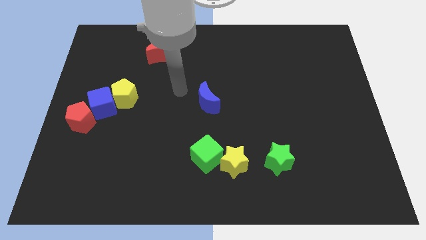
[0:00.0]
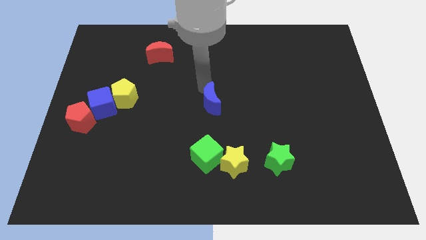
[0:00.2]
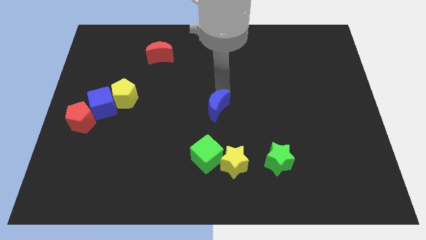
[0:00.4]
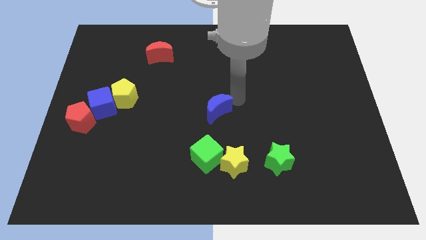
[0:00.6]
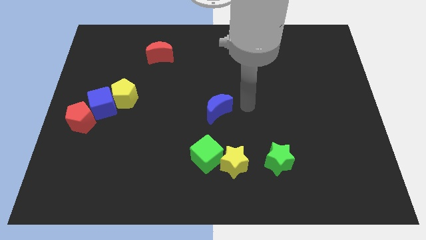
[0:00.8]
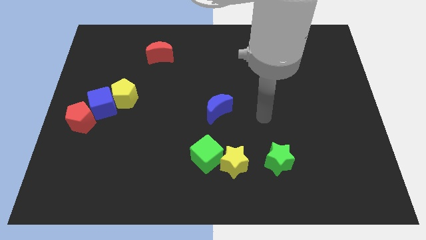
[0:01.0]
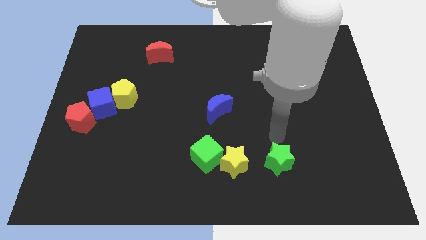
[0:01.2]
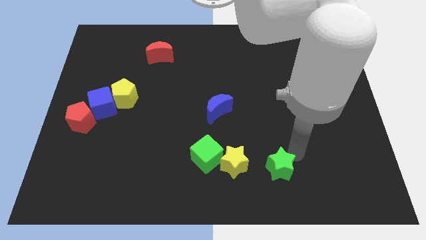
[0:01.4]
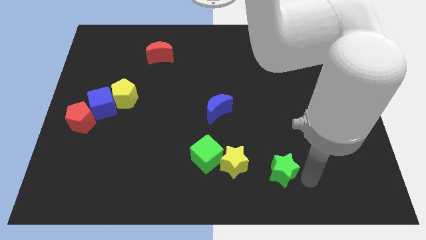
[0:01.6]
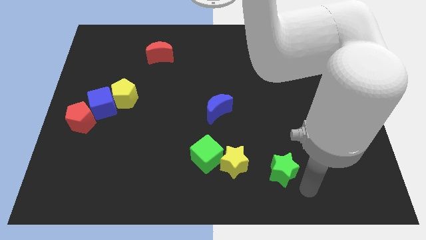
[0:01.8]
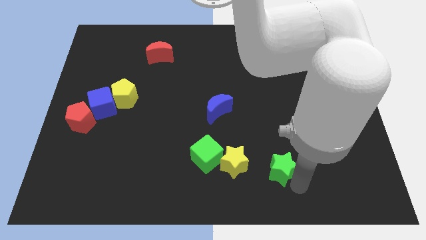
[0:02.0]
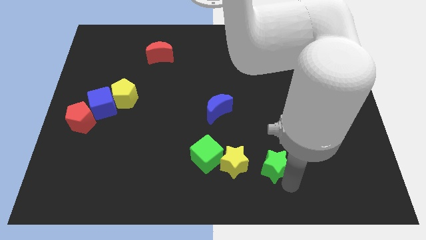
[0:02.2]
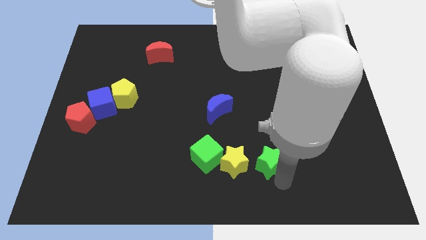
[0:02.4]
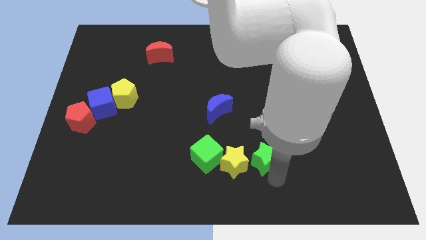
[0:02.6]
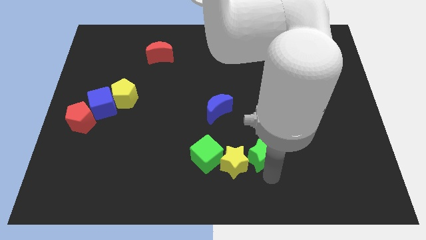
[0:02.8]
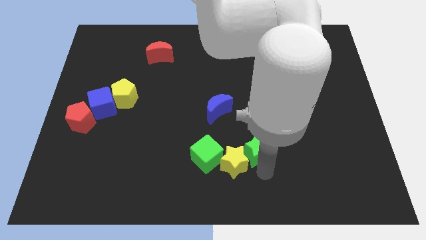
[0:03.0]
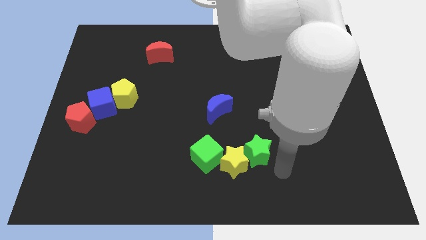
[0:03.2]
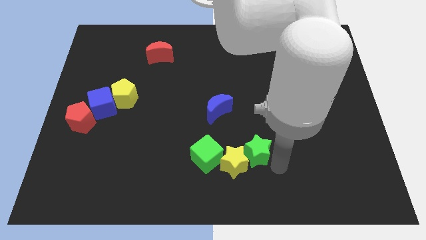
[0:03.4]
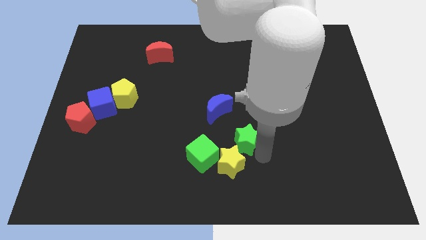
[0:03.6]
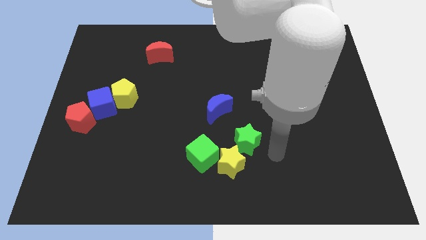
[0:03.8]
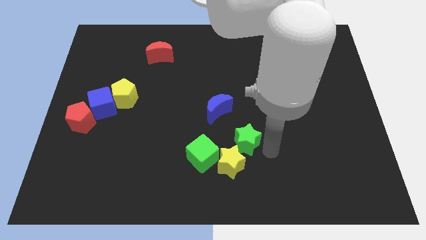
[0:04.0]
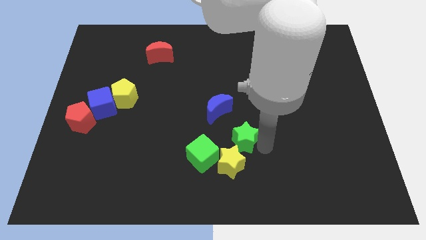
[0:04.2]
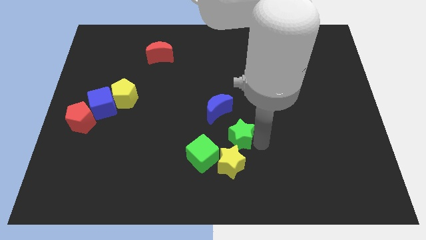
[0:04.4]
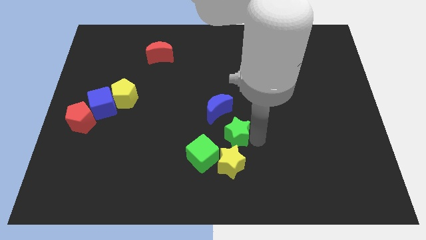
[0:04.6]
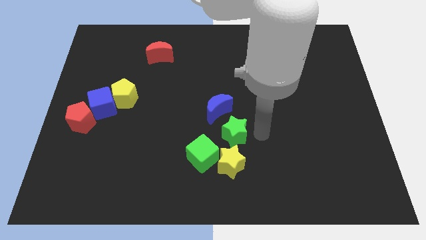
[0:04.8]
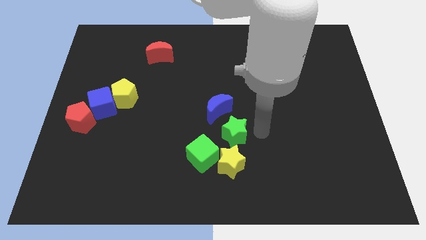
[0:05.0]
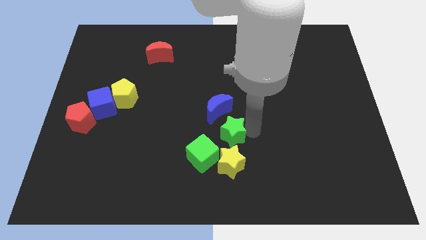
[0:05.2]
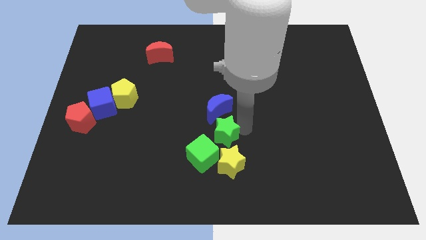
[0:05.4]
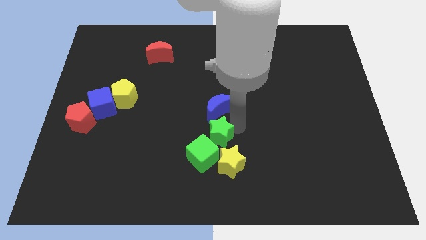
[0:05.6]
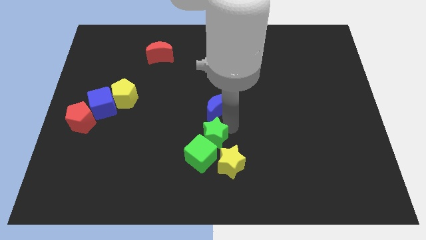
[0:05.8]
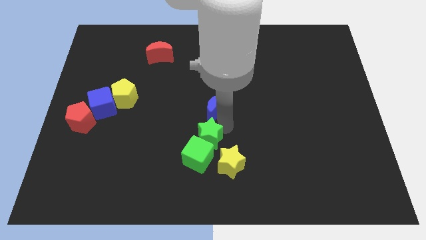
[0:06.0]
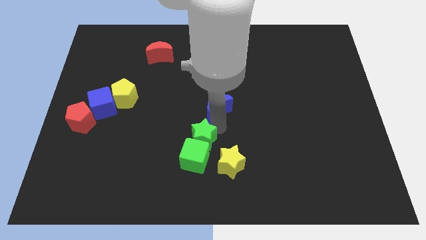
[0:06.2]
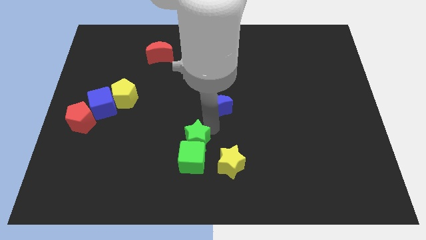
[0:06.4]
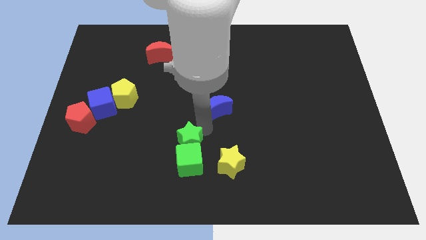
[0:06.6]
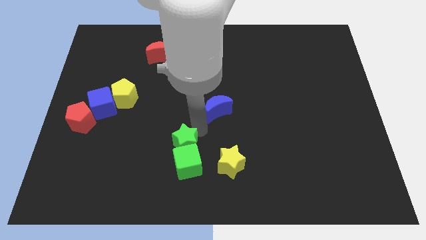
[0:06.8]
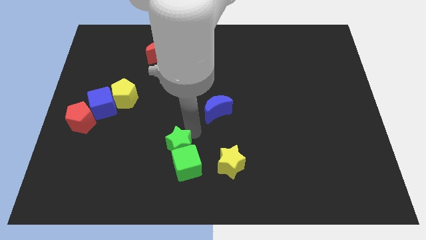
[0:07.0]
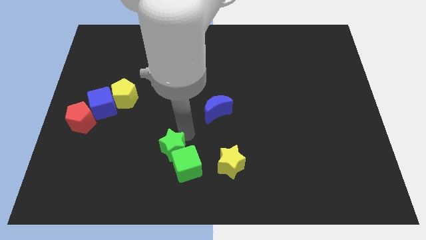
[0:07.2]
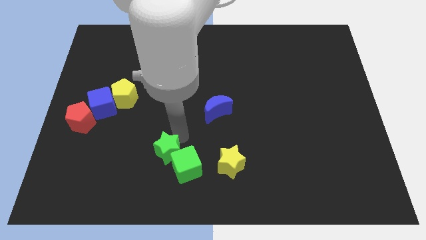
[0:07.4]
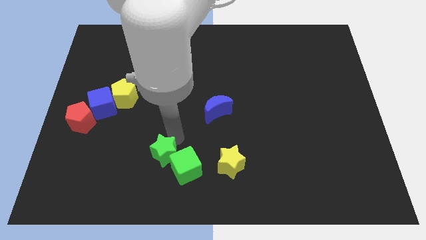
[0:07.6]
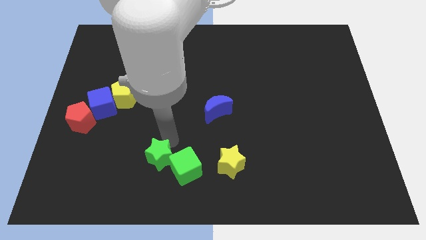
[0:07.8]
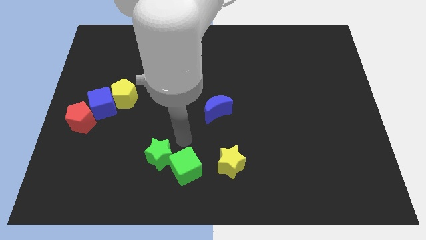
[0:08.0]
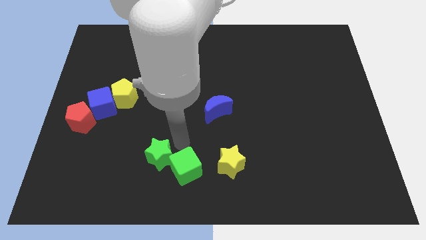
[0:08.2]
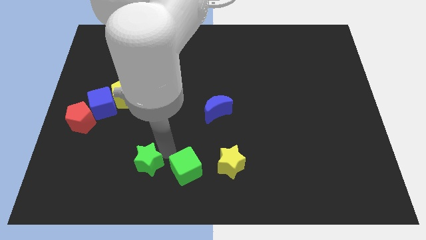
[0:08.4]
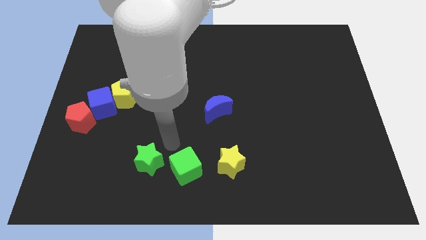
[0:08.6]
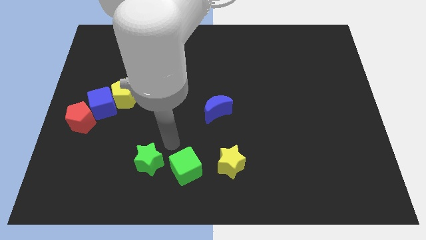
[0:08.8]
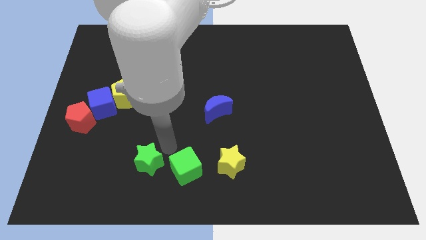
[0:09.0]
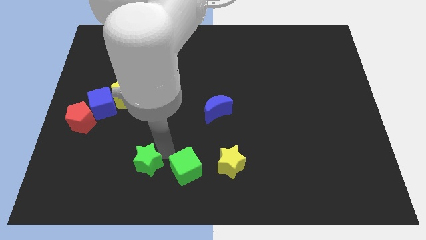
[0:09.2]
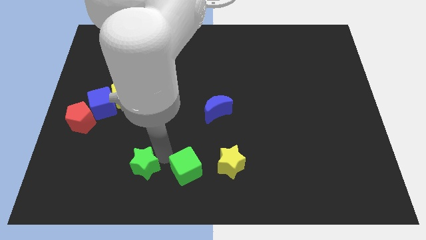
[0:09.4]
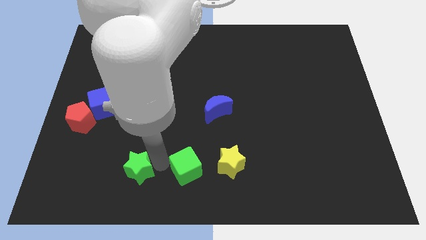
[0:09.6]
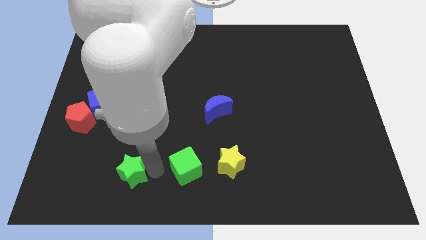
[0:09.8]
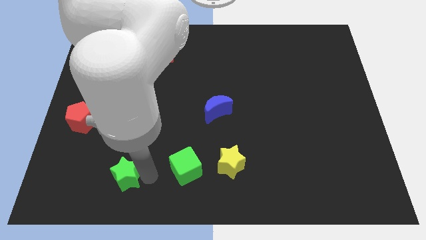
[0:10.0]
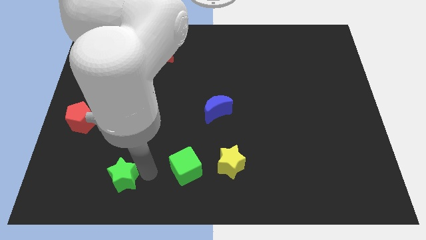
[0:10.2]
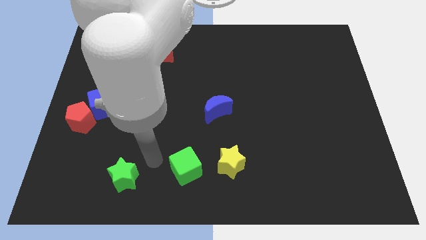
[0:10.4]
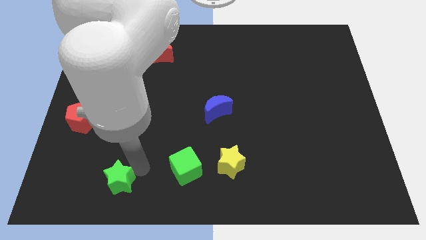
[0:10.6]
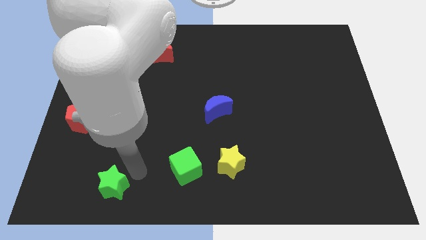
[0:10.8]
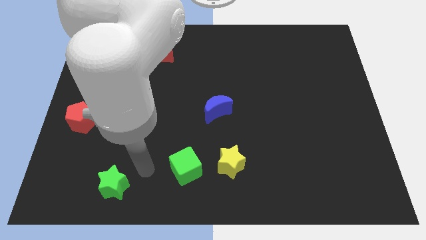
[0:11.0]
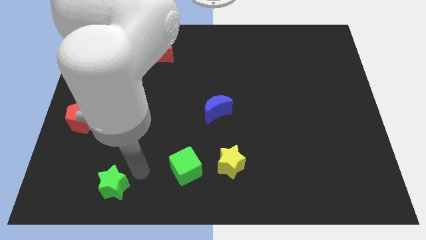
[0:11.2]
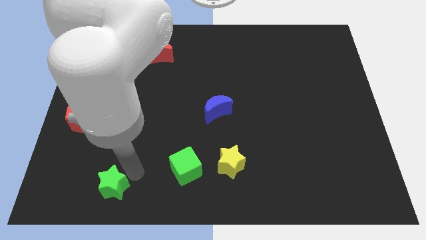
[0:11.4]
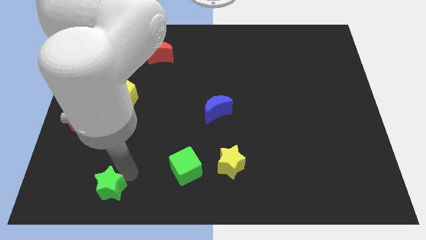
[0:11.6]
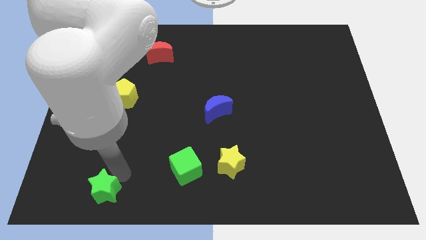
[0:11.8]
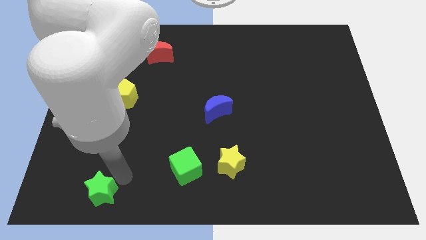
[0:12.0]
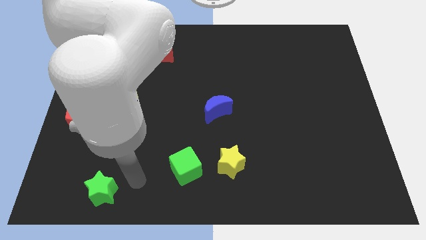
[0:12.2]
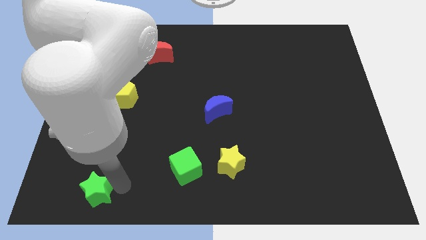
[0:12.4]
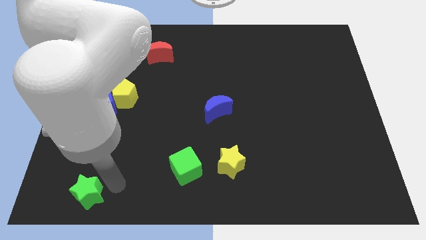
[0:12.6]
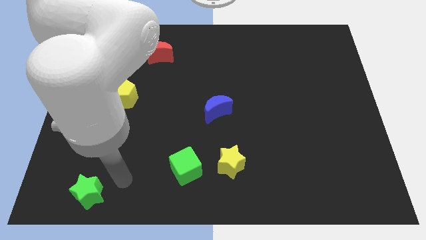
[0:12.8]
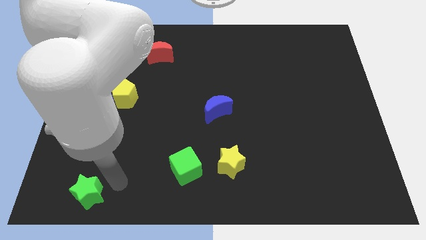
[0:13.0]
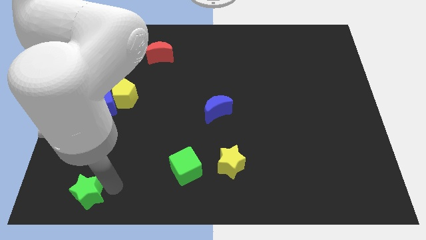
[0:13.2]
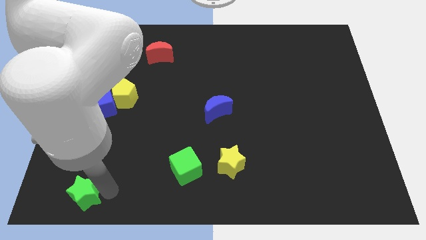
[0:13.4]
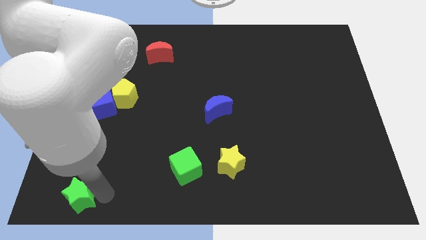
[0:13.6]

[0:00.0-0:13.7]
slide the green star to the bottom left of the board
